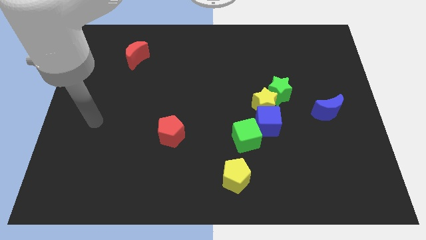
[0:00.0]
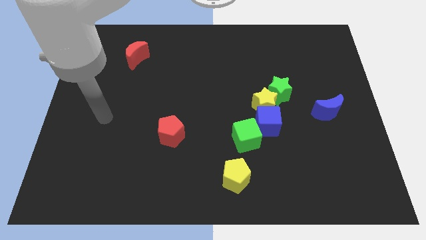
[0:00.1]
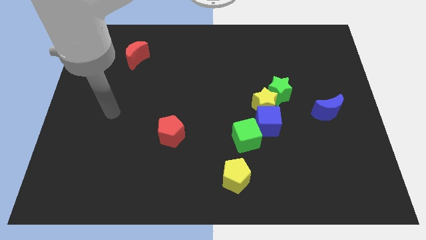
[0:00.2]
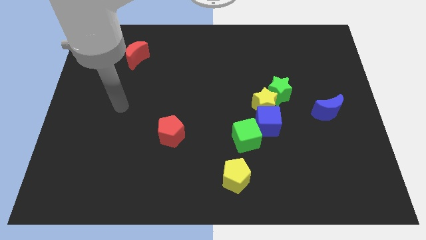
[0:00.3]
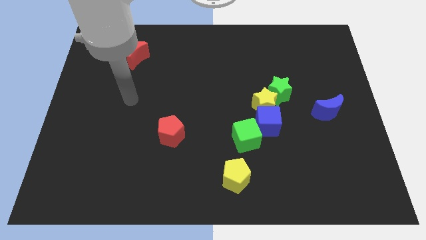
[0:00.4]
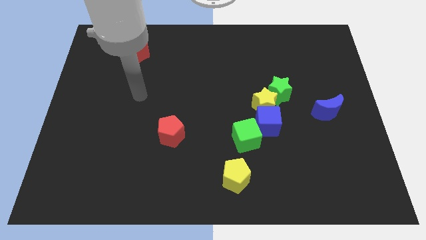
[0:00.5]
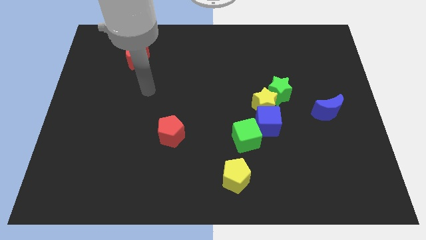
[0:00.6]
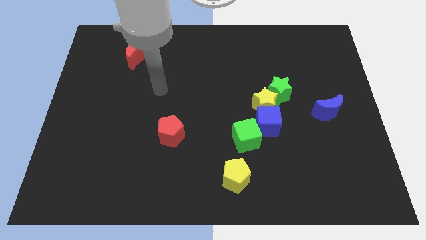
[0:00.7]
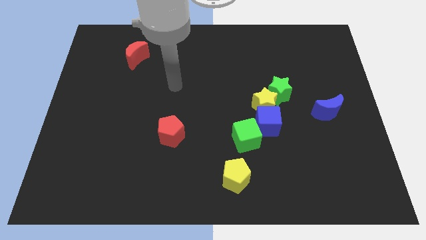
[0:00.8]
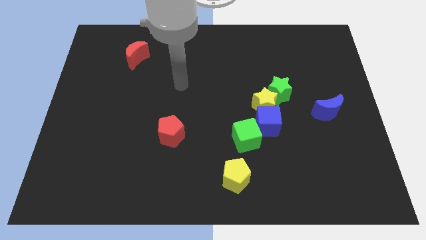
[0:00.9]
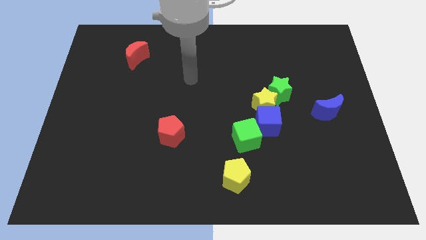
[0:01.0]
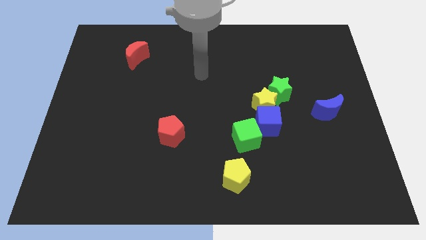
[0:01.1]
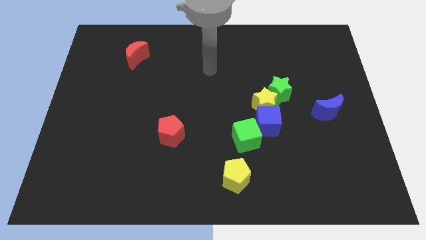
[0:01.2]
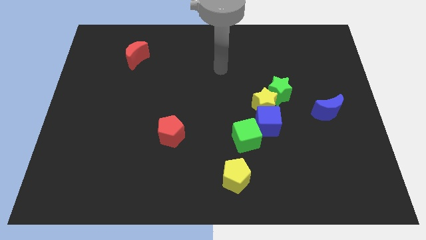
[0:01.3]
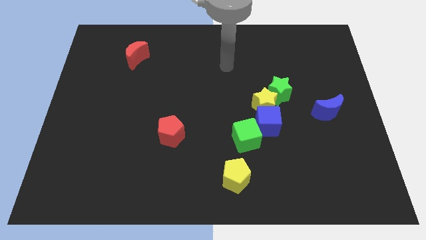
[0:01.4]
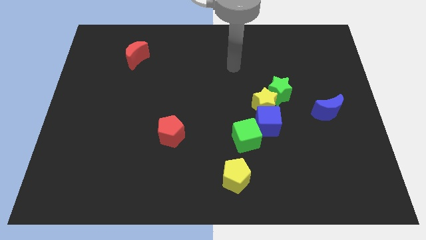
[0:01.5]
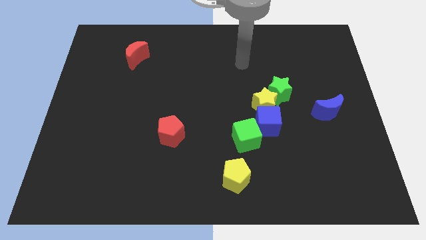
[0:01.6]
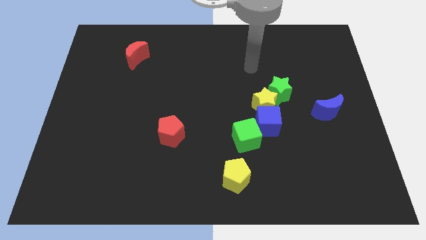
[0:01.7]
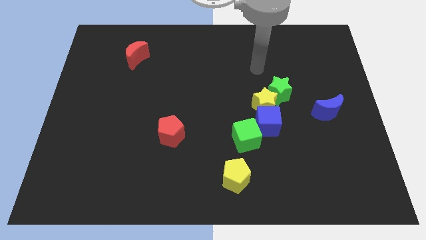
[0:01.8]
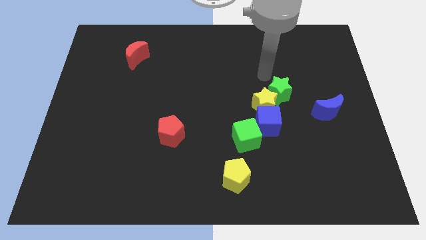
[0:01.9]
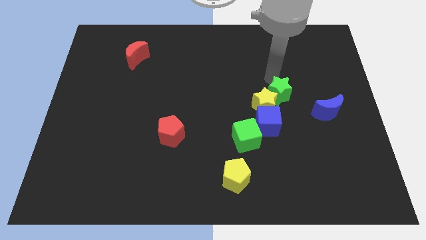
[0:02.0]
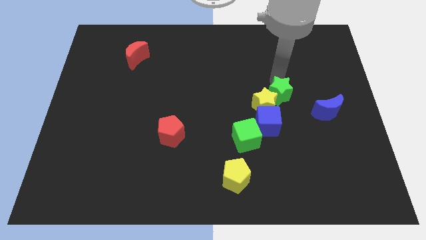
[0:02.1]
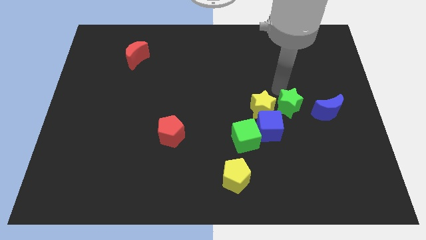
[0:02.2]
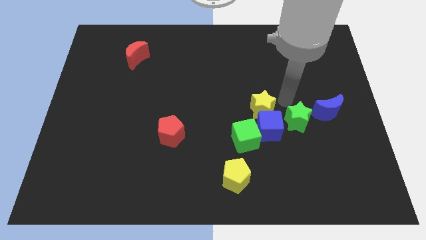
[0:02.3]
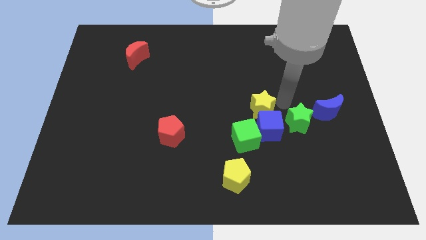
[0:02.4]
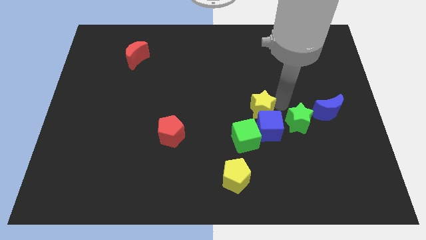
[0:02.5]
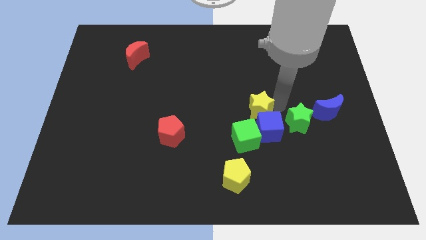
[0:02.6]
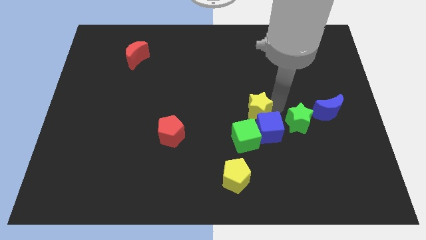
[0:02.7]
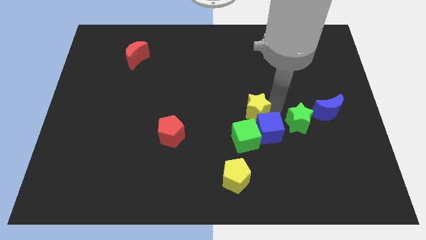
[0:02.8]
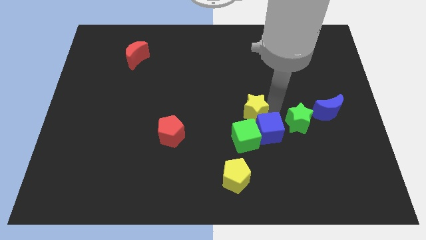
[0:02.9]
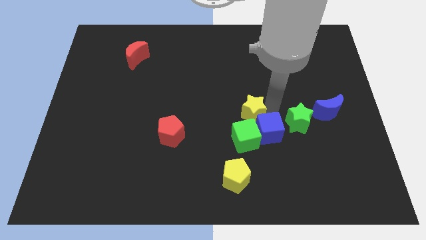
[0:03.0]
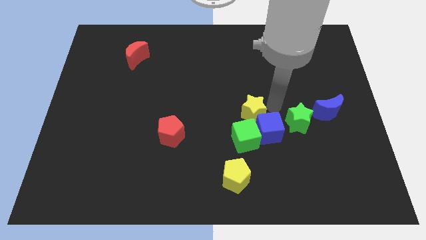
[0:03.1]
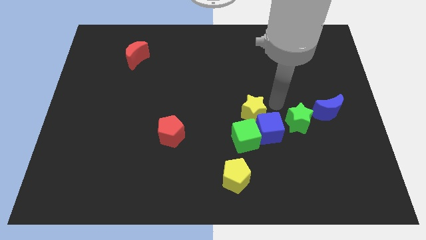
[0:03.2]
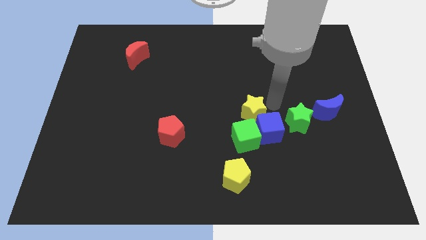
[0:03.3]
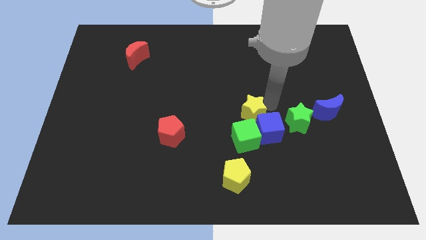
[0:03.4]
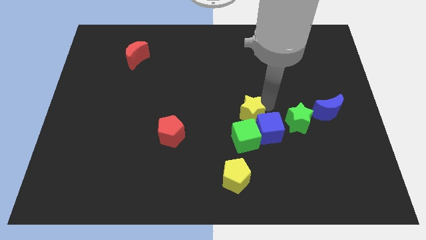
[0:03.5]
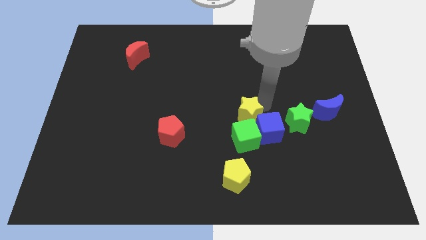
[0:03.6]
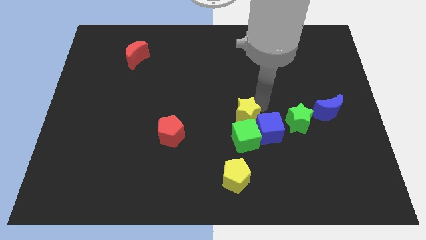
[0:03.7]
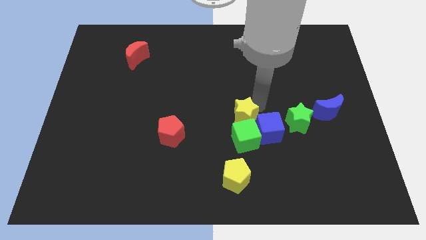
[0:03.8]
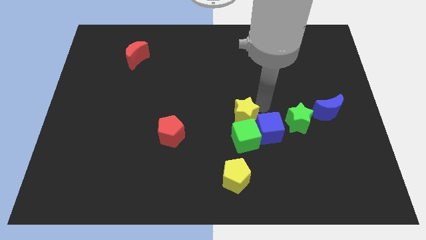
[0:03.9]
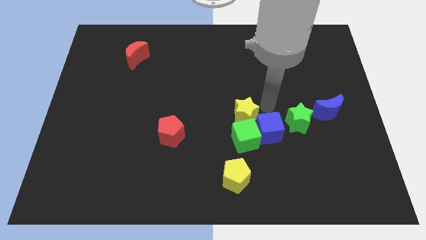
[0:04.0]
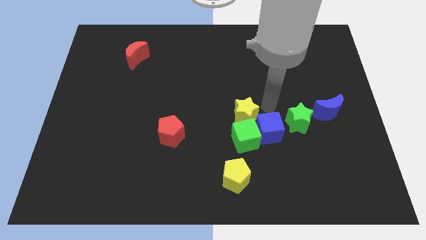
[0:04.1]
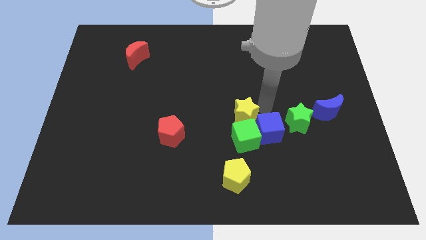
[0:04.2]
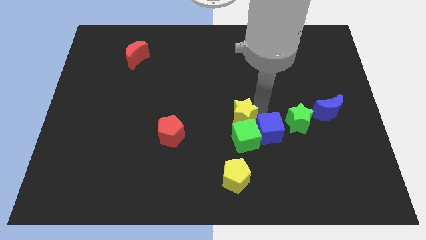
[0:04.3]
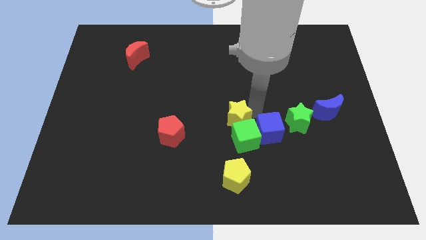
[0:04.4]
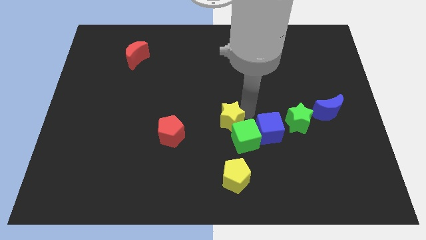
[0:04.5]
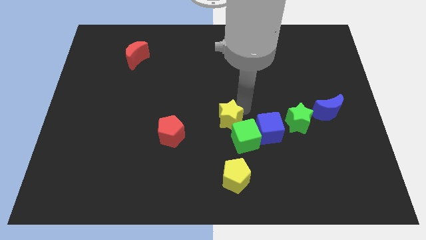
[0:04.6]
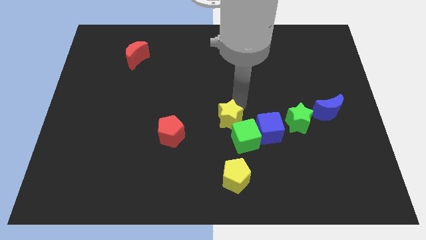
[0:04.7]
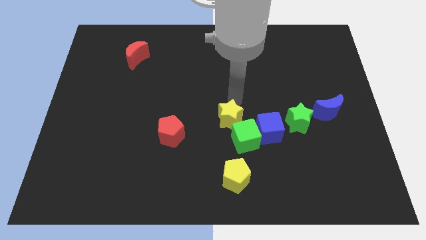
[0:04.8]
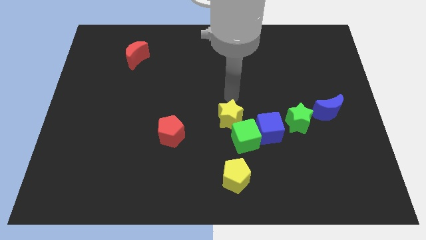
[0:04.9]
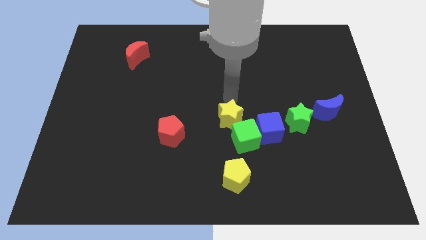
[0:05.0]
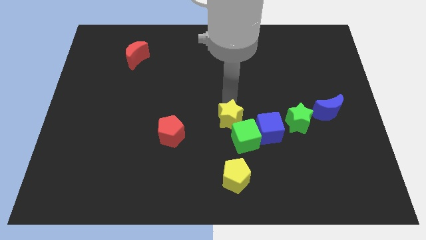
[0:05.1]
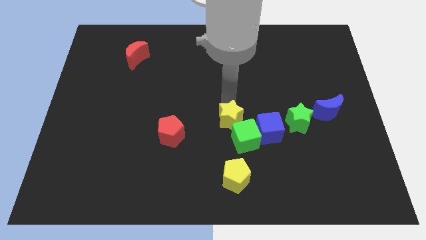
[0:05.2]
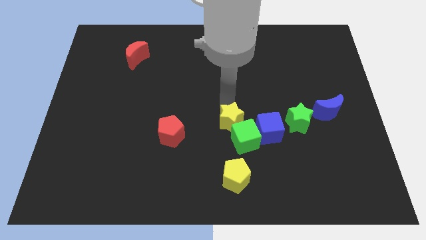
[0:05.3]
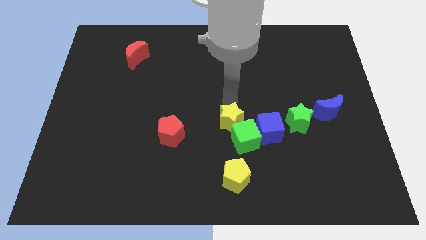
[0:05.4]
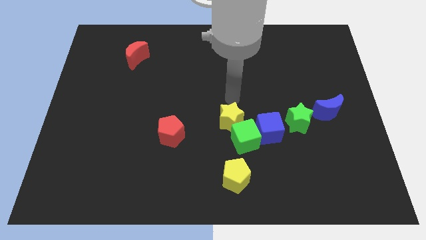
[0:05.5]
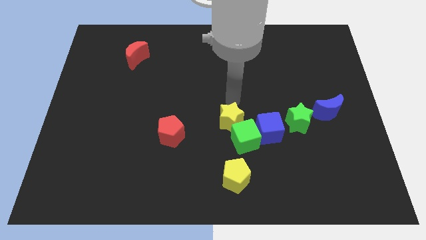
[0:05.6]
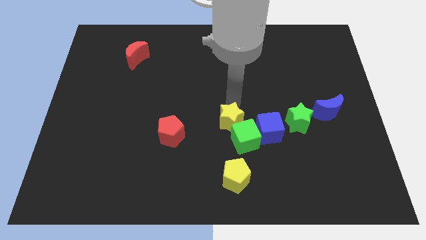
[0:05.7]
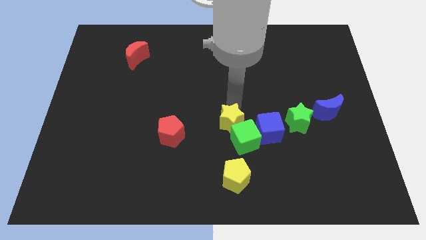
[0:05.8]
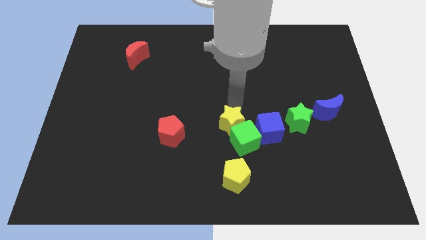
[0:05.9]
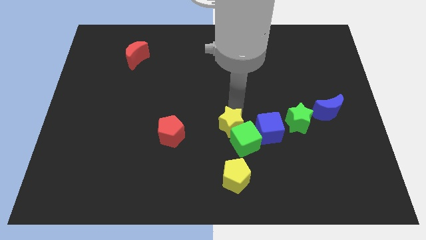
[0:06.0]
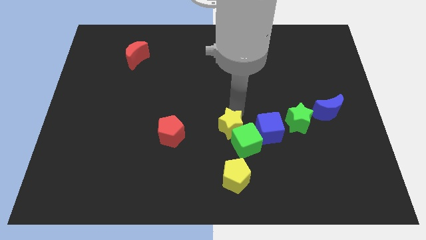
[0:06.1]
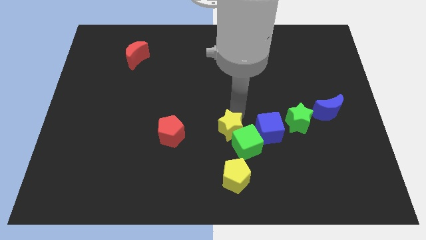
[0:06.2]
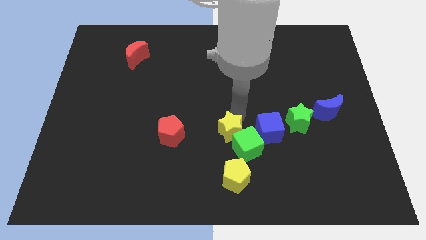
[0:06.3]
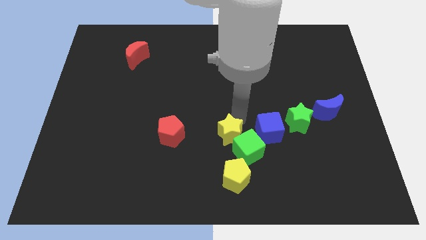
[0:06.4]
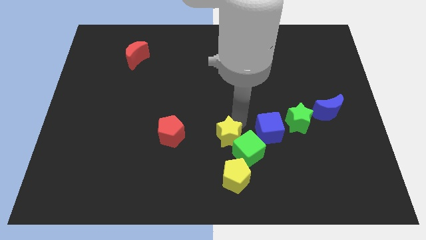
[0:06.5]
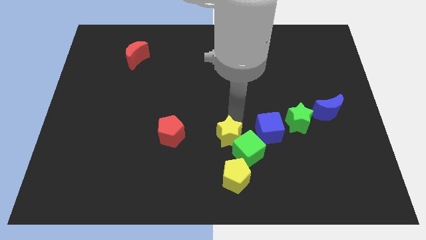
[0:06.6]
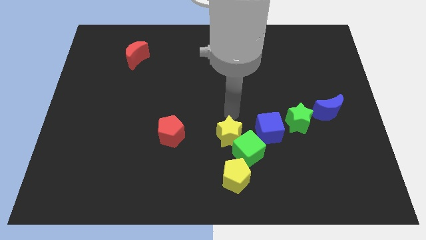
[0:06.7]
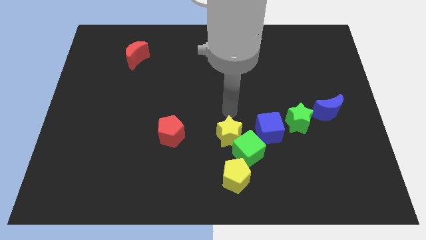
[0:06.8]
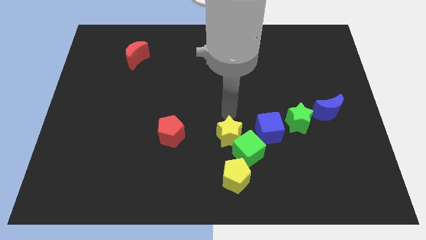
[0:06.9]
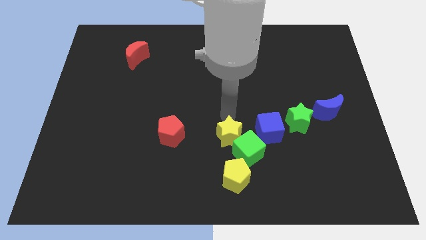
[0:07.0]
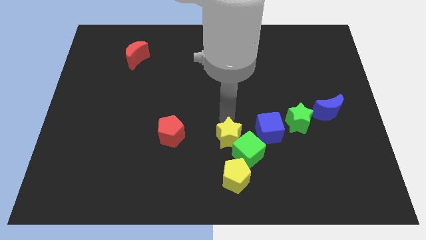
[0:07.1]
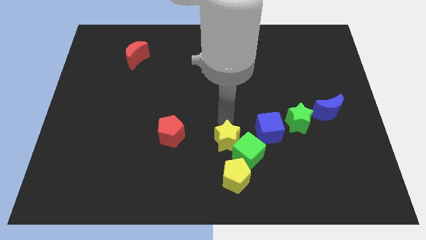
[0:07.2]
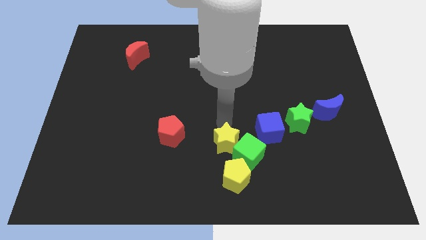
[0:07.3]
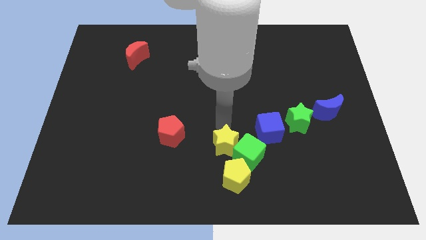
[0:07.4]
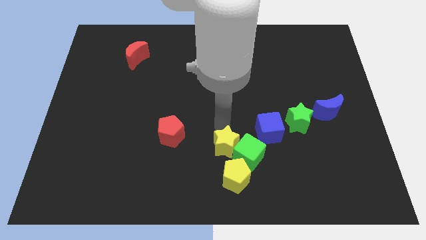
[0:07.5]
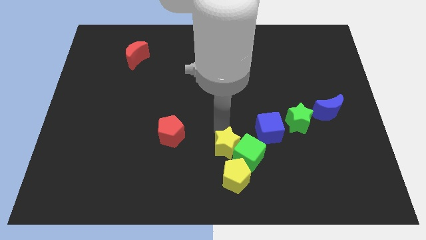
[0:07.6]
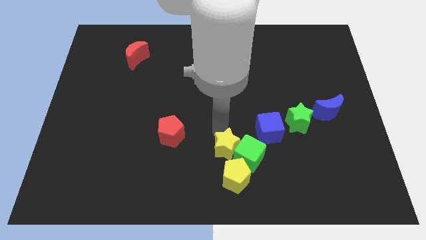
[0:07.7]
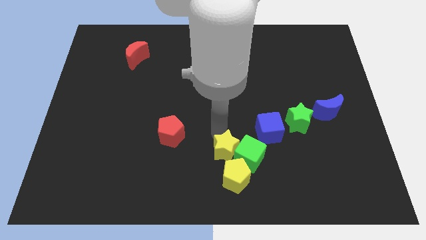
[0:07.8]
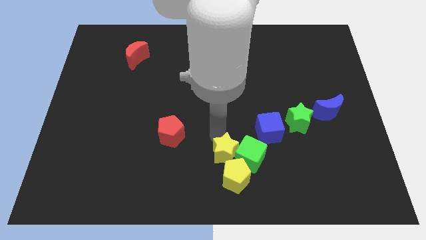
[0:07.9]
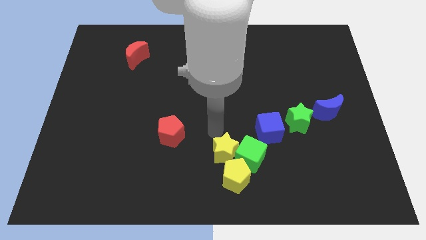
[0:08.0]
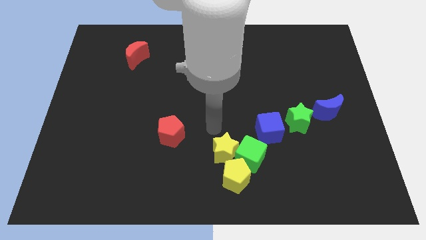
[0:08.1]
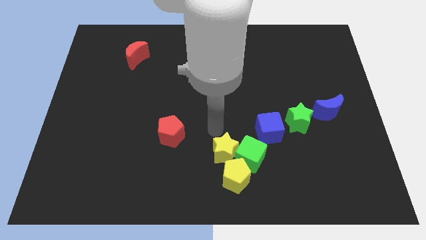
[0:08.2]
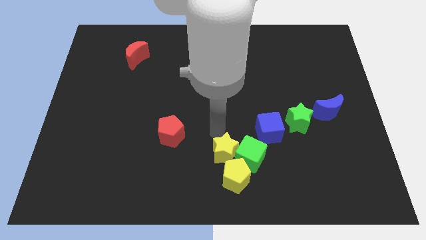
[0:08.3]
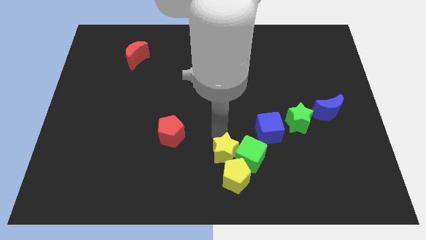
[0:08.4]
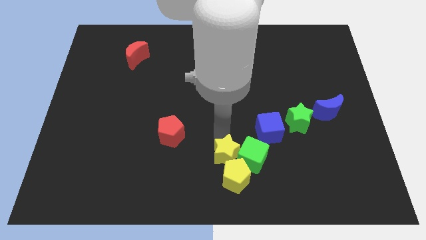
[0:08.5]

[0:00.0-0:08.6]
move the yellow star to the yellow pentagon
